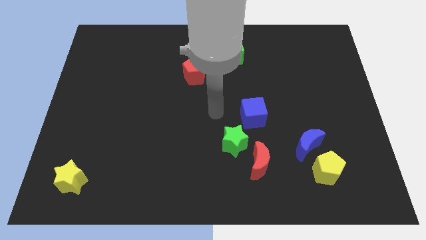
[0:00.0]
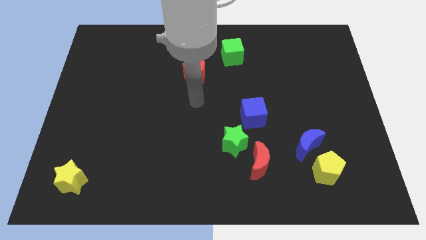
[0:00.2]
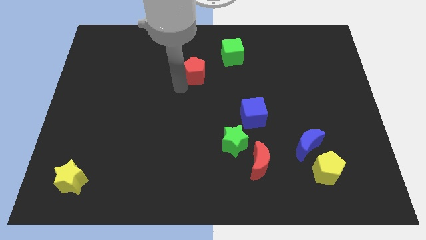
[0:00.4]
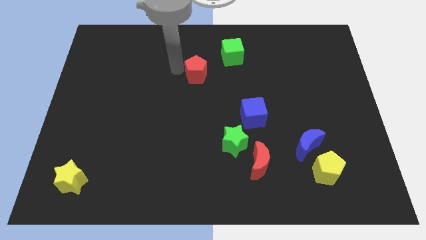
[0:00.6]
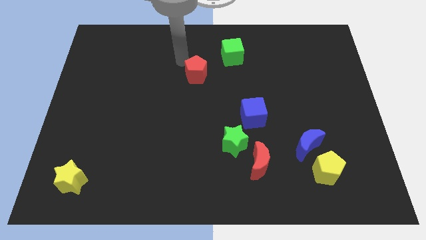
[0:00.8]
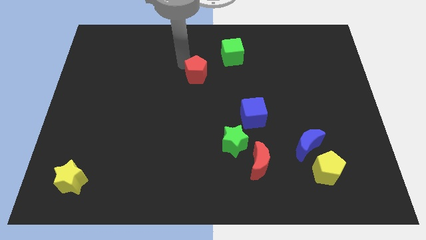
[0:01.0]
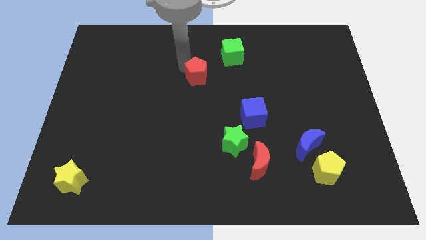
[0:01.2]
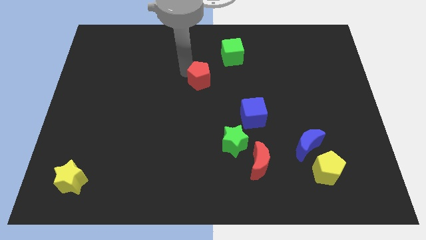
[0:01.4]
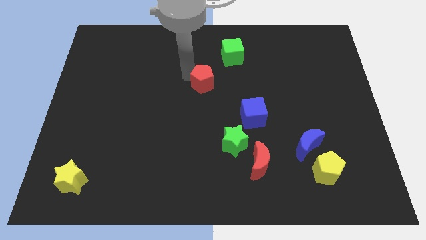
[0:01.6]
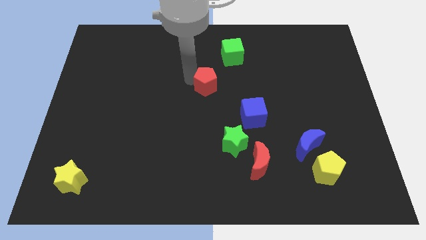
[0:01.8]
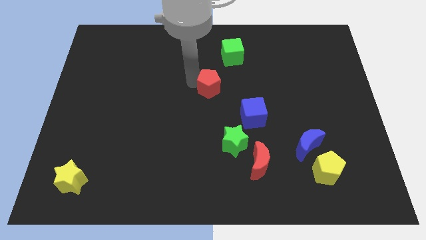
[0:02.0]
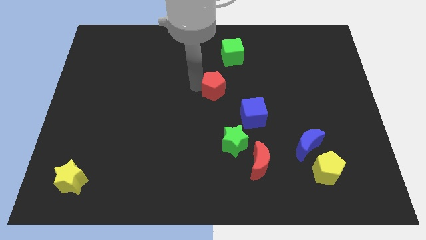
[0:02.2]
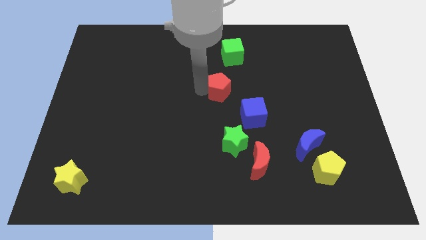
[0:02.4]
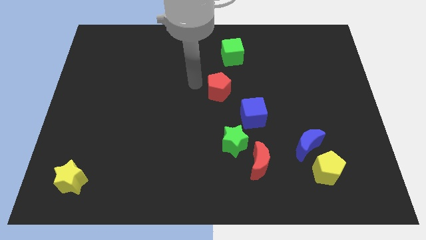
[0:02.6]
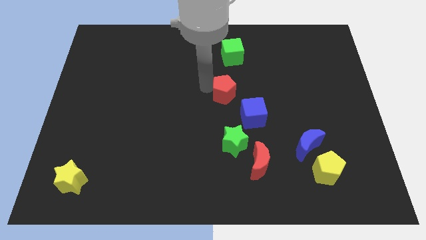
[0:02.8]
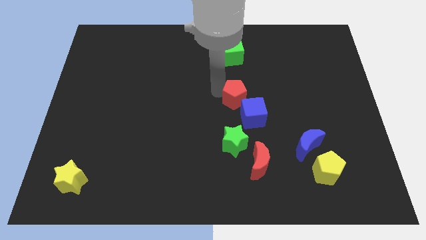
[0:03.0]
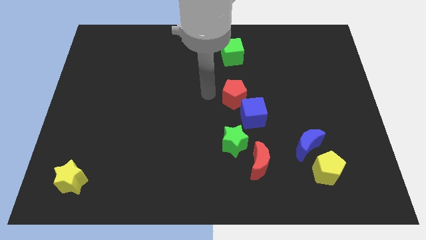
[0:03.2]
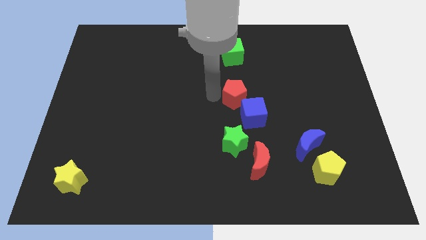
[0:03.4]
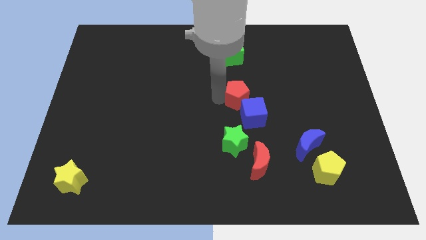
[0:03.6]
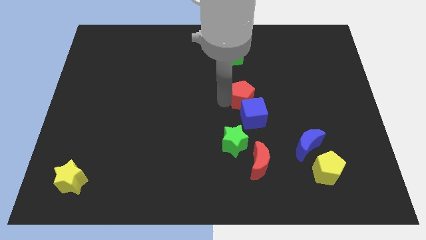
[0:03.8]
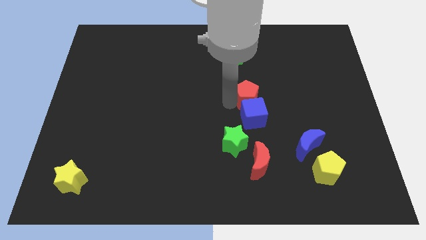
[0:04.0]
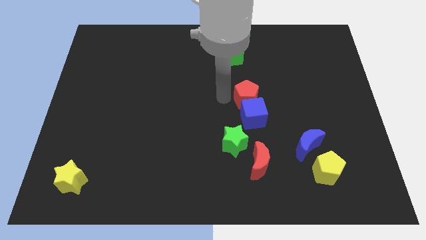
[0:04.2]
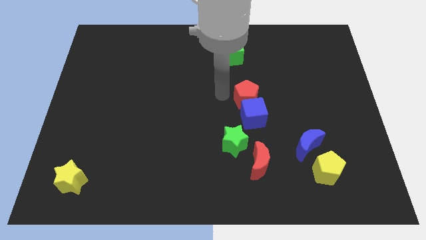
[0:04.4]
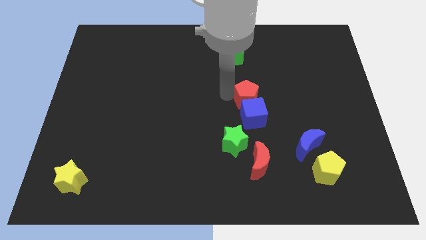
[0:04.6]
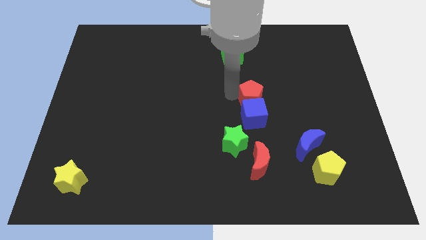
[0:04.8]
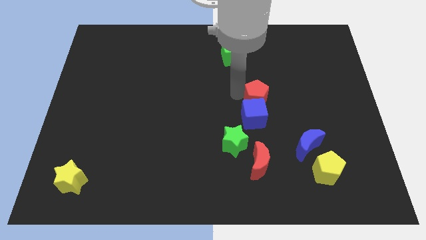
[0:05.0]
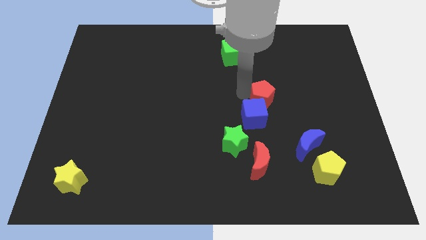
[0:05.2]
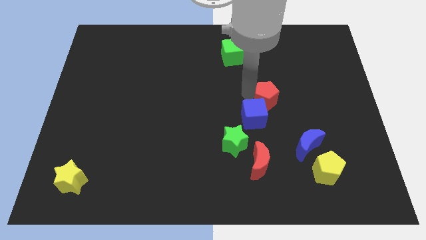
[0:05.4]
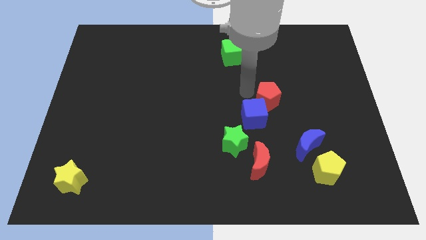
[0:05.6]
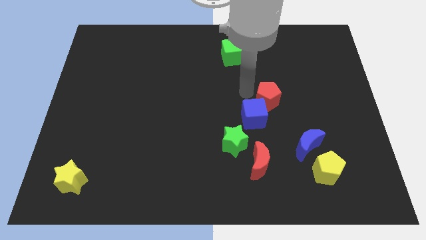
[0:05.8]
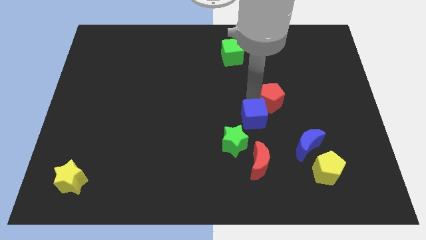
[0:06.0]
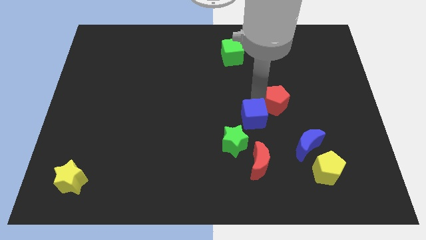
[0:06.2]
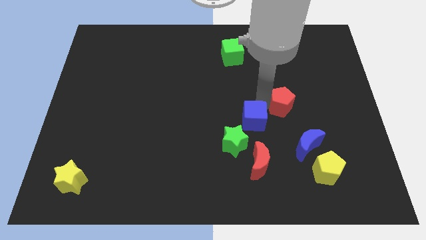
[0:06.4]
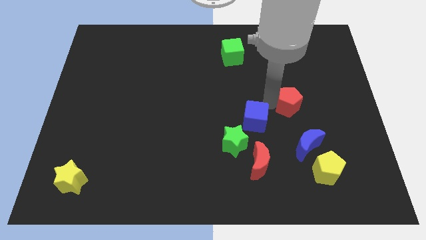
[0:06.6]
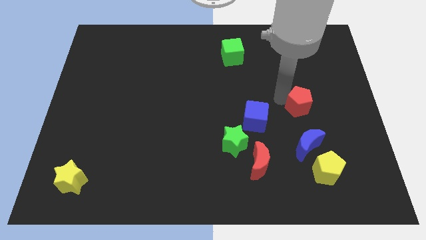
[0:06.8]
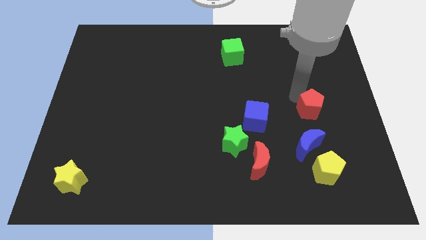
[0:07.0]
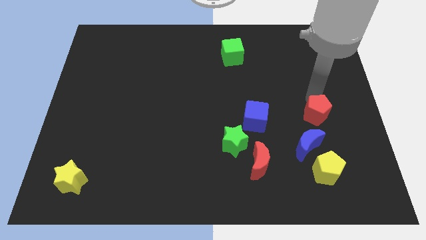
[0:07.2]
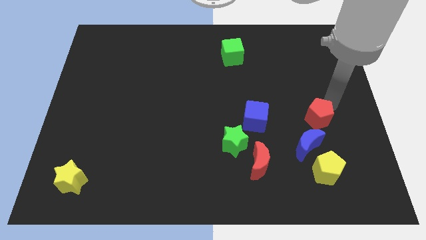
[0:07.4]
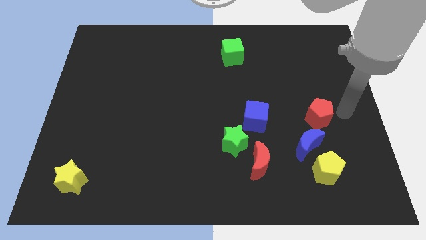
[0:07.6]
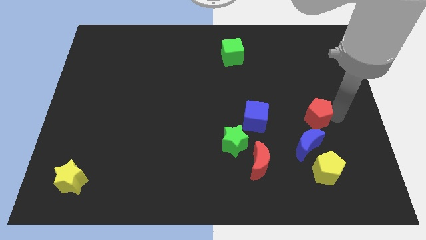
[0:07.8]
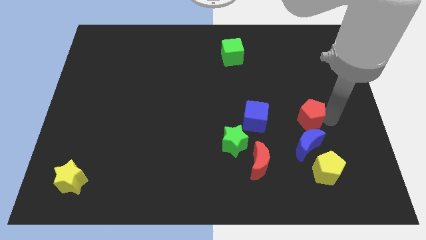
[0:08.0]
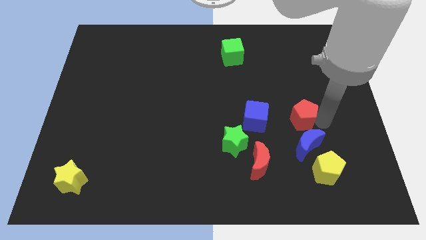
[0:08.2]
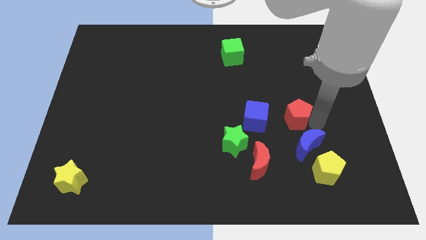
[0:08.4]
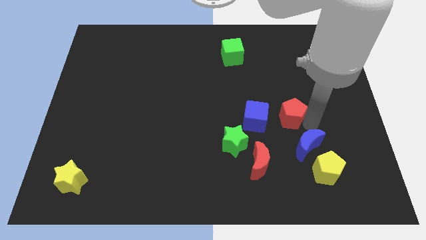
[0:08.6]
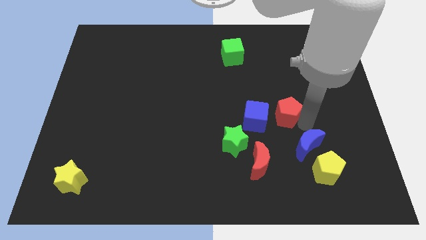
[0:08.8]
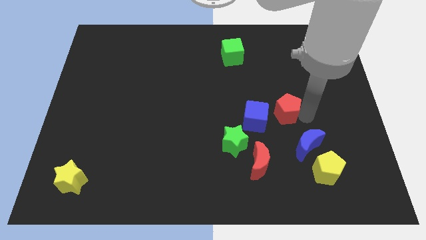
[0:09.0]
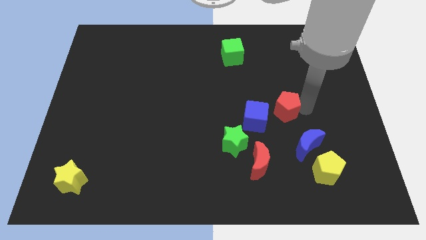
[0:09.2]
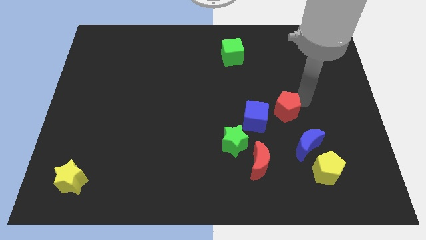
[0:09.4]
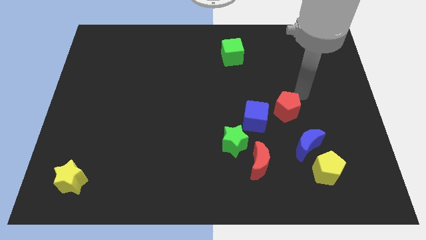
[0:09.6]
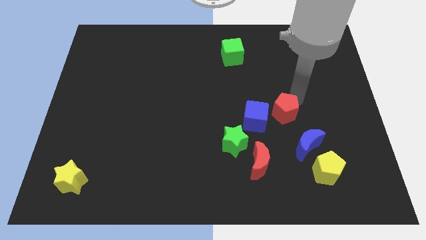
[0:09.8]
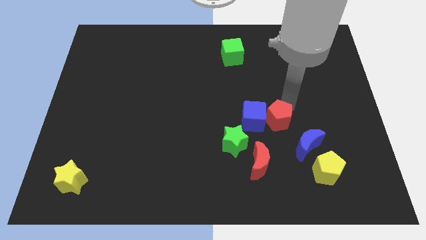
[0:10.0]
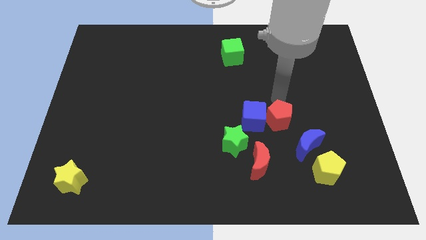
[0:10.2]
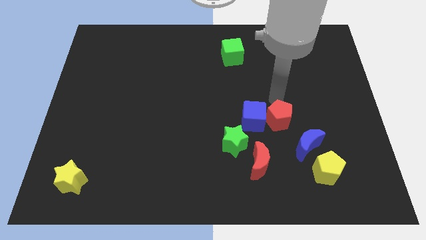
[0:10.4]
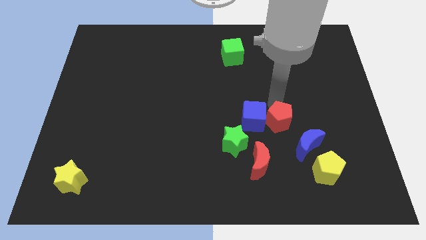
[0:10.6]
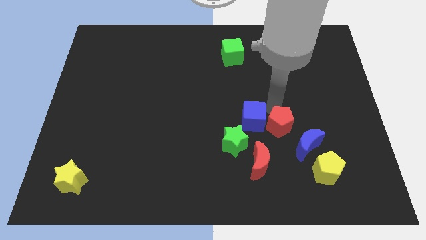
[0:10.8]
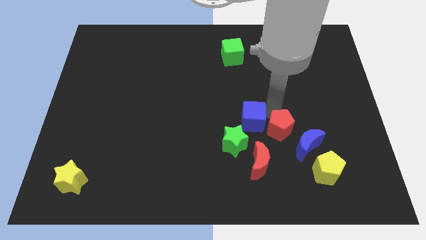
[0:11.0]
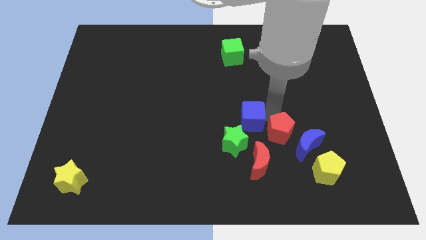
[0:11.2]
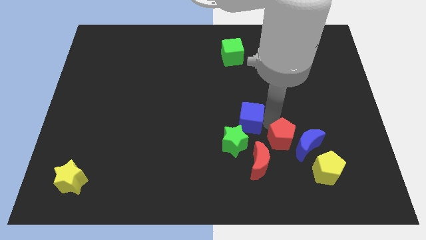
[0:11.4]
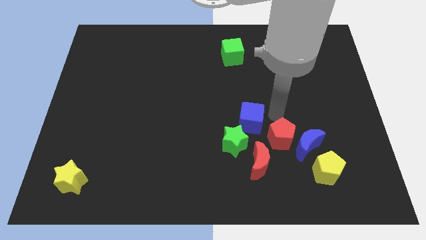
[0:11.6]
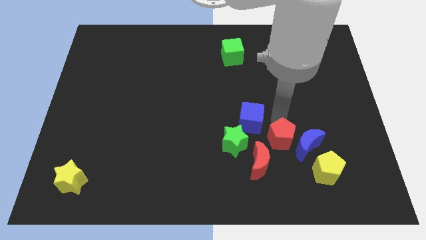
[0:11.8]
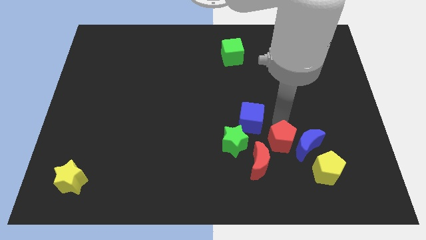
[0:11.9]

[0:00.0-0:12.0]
push the red pentagon to the bottom left side of the blue moon

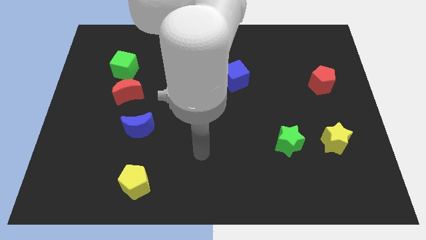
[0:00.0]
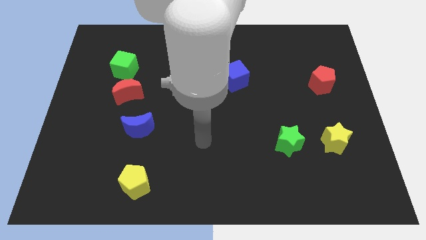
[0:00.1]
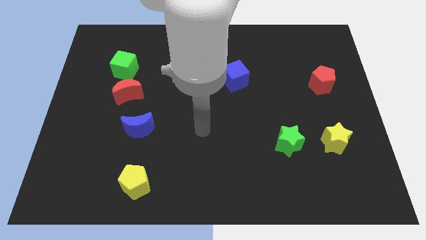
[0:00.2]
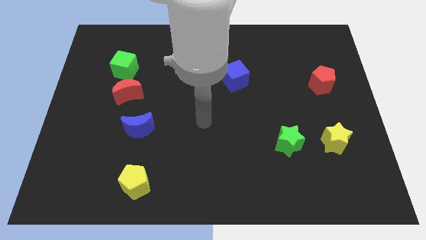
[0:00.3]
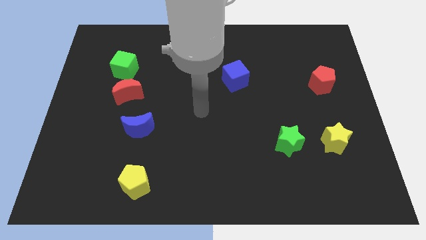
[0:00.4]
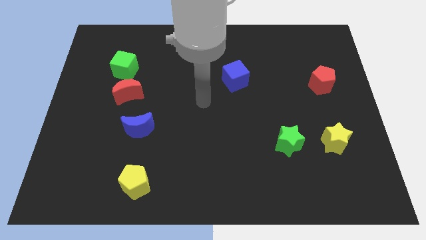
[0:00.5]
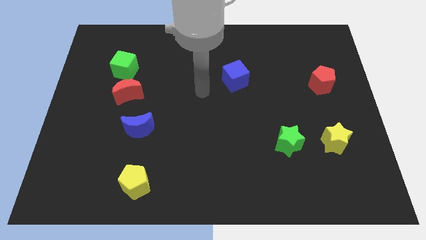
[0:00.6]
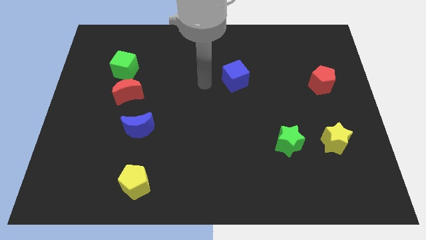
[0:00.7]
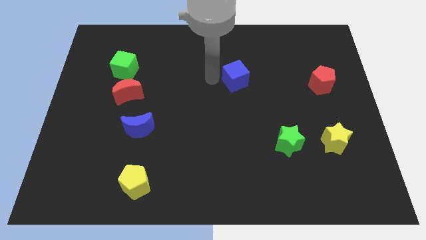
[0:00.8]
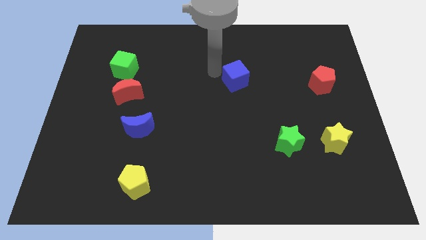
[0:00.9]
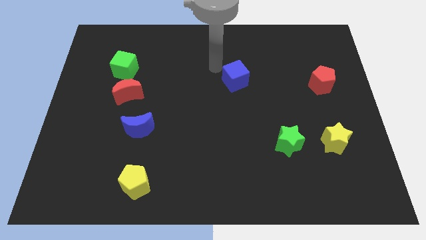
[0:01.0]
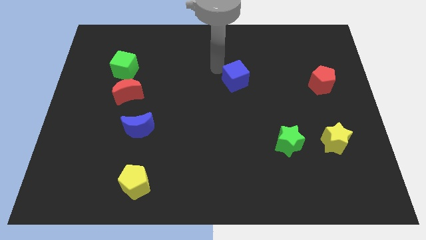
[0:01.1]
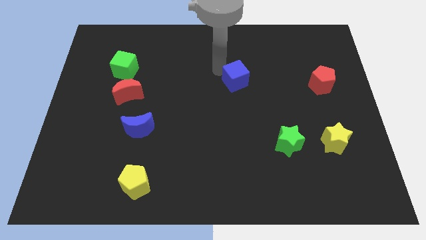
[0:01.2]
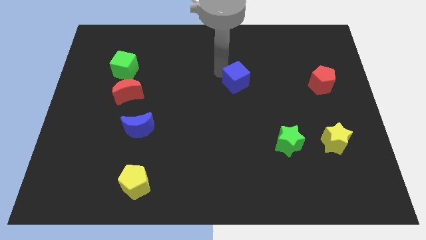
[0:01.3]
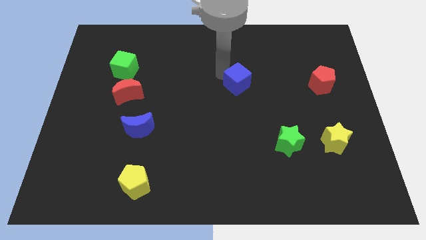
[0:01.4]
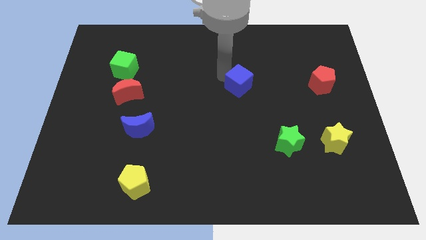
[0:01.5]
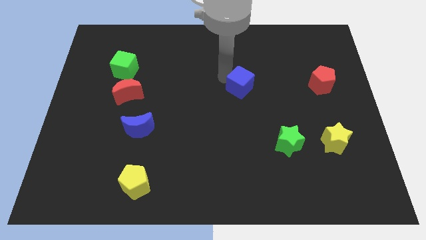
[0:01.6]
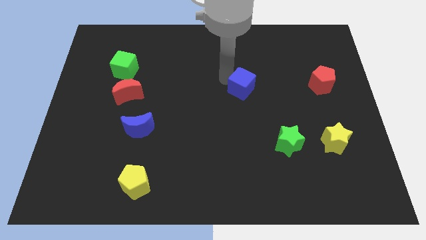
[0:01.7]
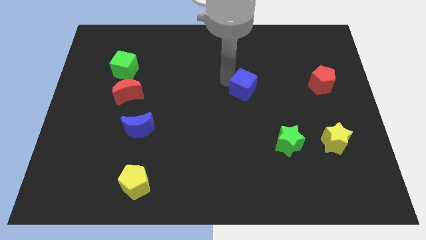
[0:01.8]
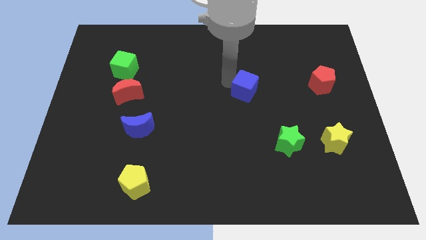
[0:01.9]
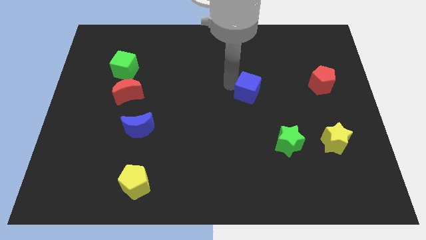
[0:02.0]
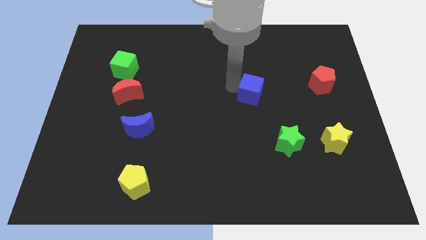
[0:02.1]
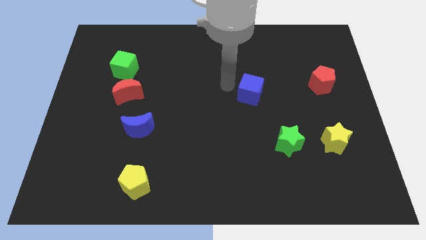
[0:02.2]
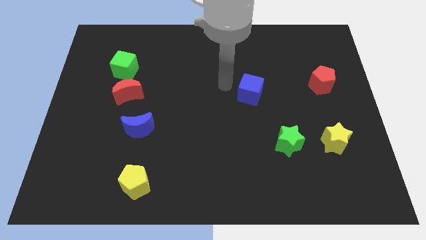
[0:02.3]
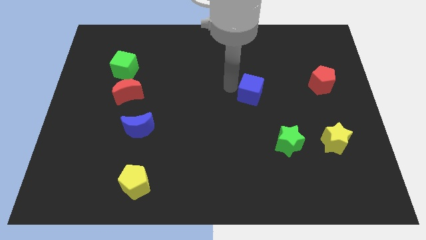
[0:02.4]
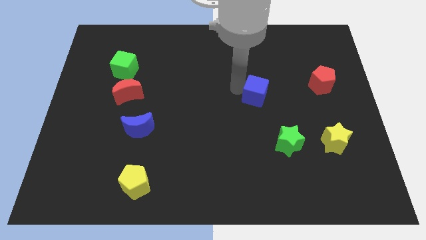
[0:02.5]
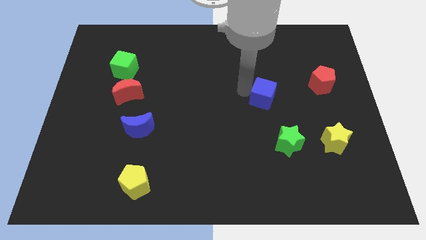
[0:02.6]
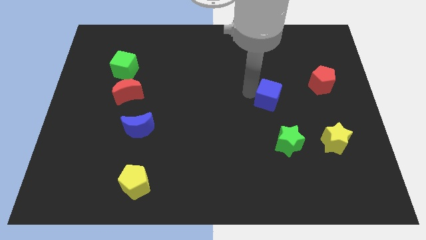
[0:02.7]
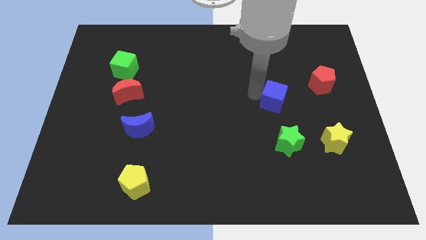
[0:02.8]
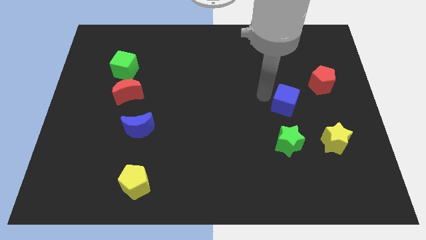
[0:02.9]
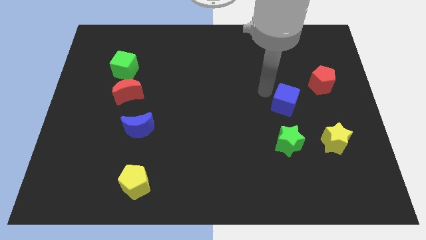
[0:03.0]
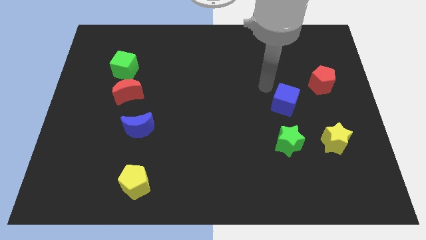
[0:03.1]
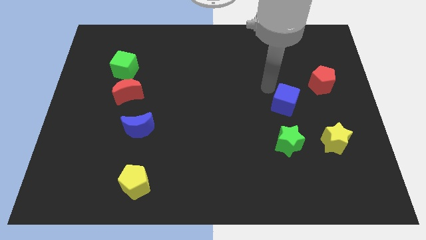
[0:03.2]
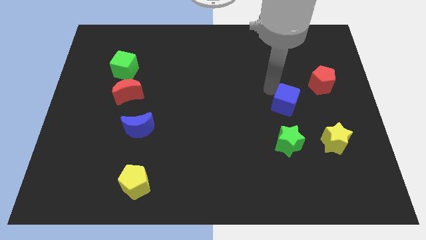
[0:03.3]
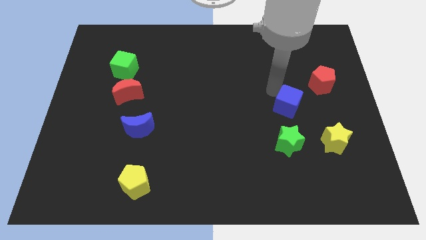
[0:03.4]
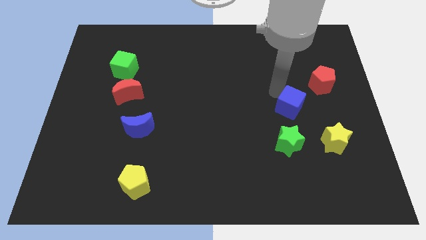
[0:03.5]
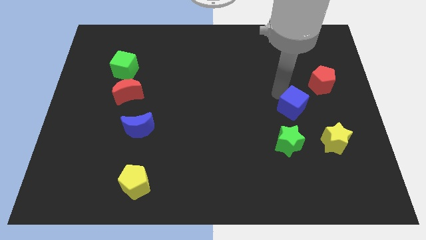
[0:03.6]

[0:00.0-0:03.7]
put the blue cube to the top left of the yellow star
